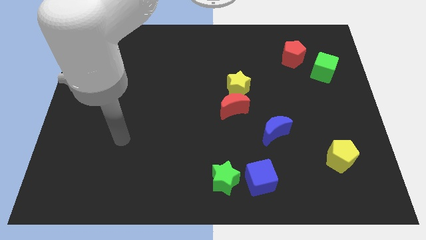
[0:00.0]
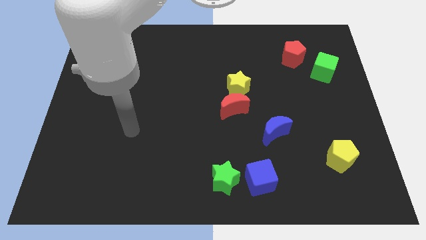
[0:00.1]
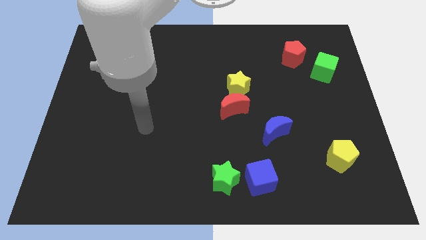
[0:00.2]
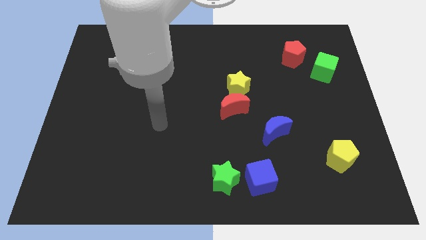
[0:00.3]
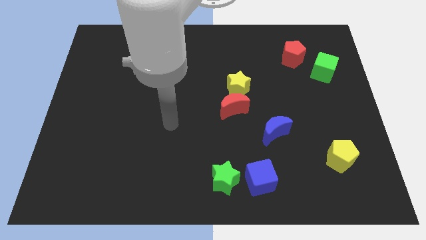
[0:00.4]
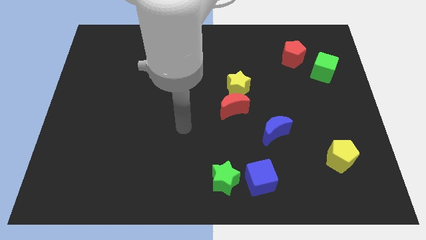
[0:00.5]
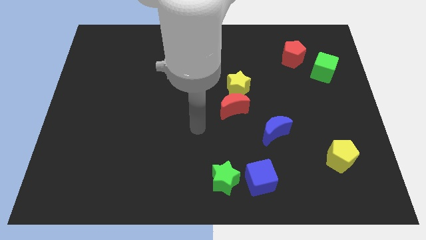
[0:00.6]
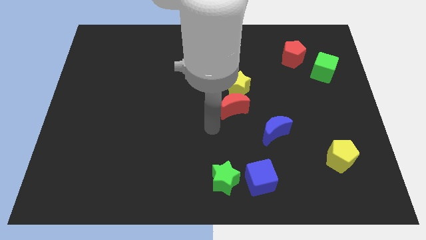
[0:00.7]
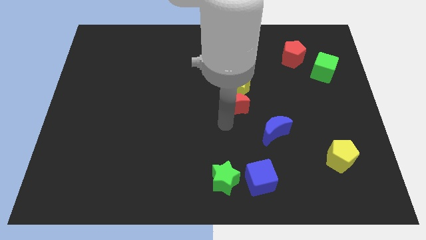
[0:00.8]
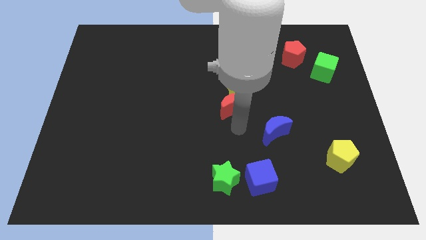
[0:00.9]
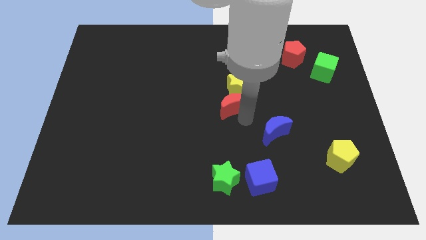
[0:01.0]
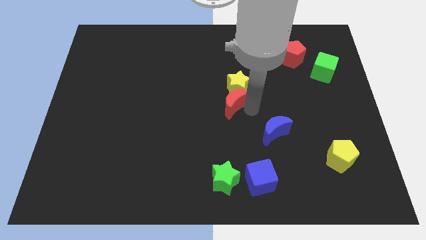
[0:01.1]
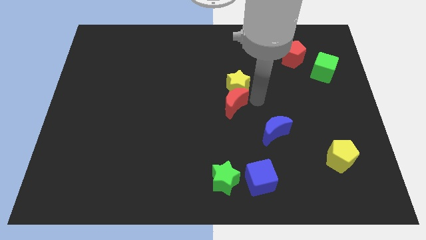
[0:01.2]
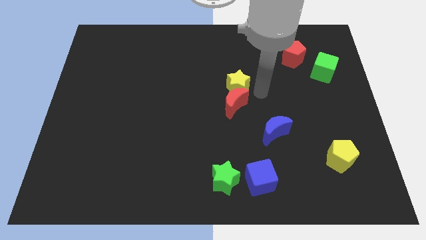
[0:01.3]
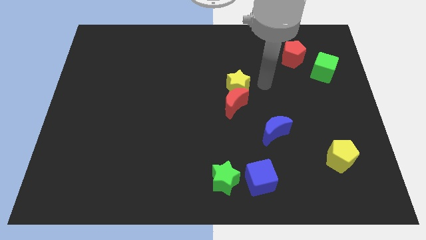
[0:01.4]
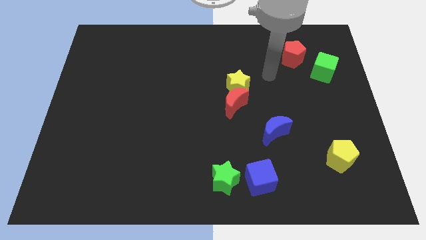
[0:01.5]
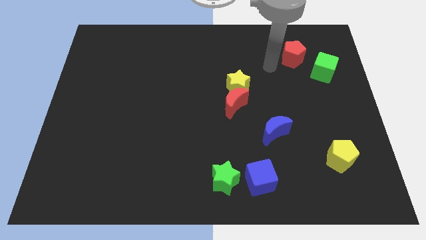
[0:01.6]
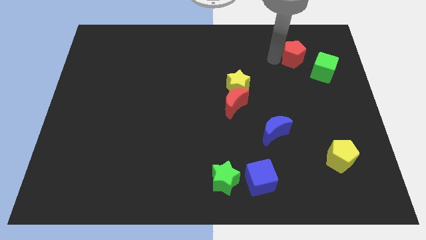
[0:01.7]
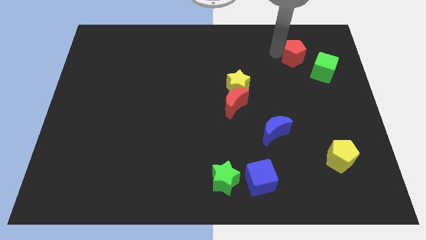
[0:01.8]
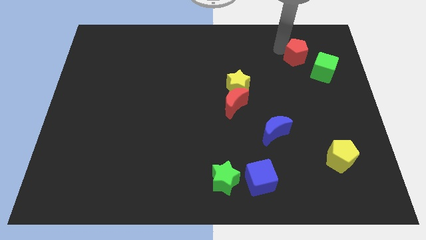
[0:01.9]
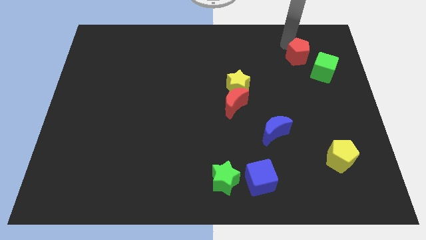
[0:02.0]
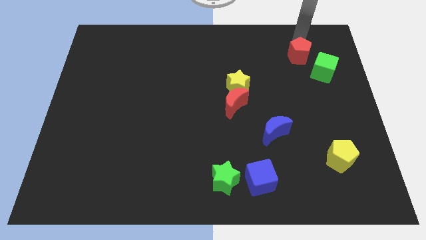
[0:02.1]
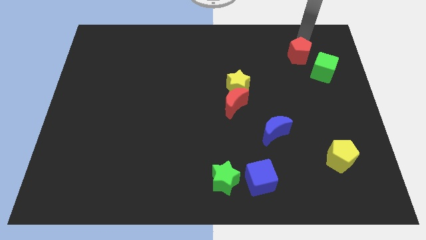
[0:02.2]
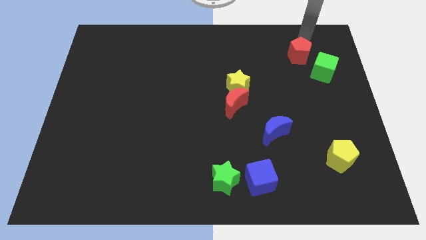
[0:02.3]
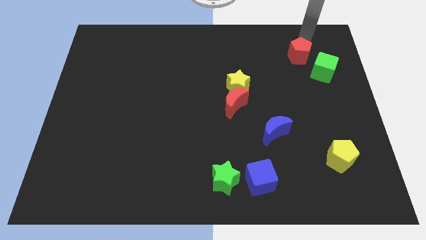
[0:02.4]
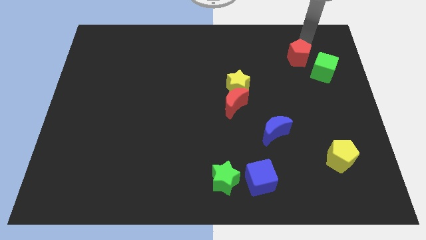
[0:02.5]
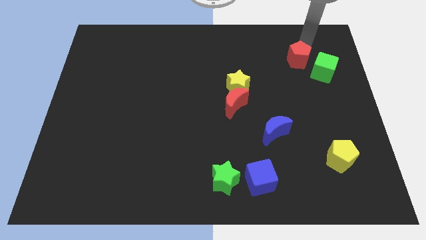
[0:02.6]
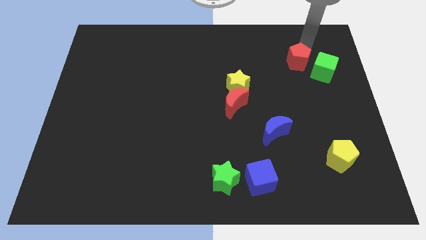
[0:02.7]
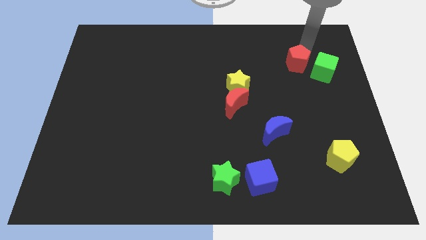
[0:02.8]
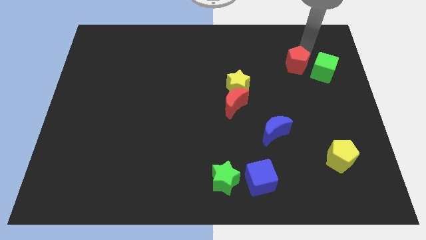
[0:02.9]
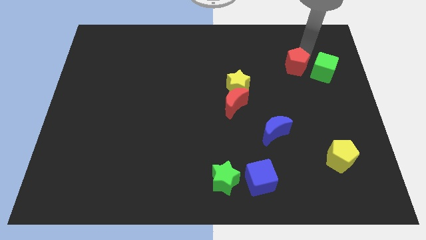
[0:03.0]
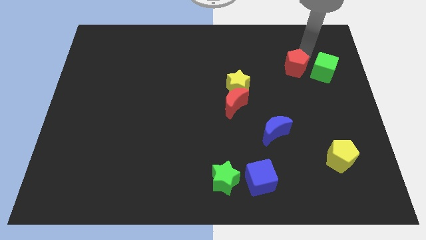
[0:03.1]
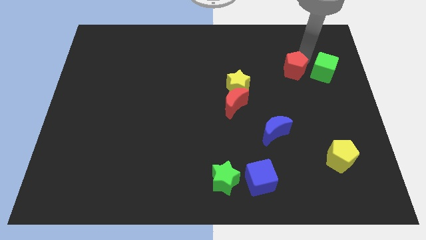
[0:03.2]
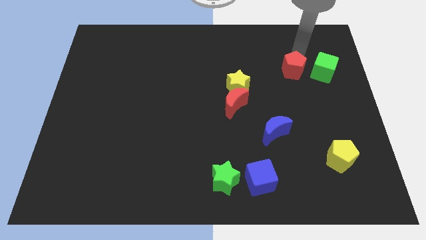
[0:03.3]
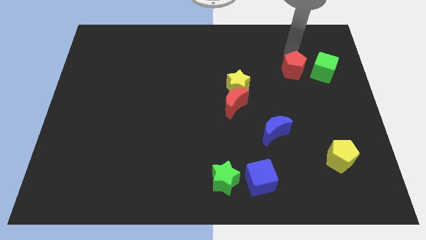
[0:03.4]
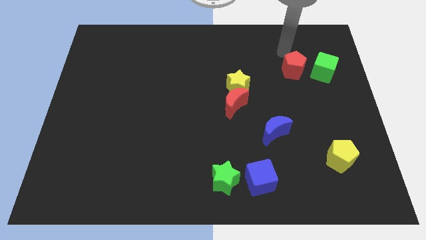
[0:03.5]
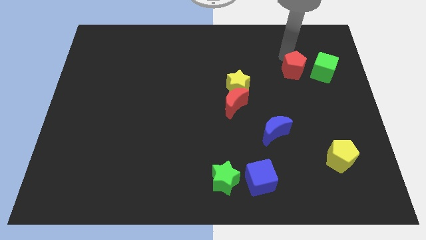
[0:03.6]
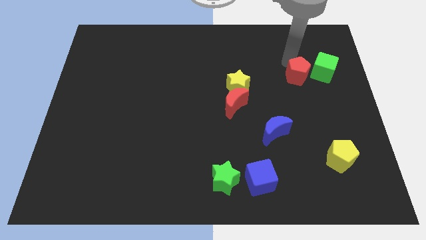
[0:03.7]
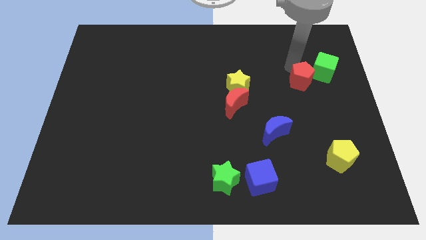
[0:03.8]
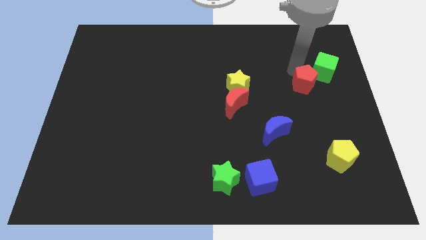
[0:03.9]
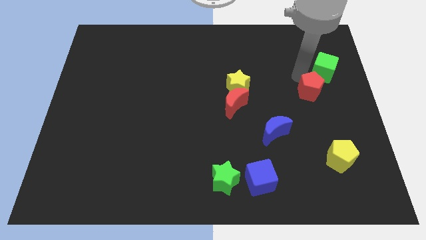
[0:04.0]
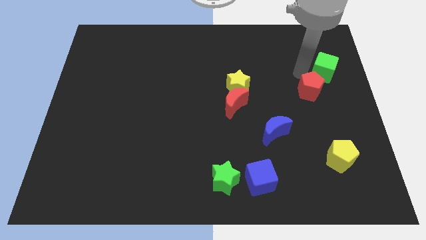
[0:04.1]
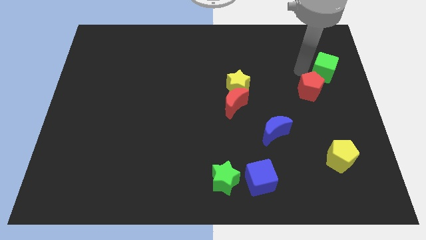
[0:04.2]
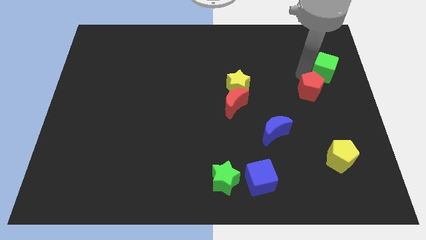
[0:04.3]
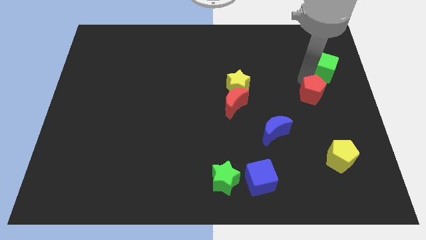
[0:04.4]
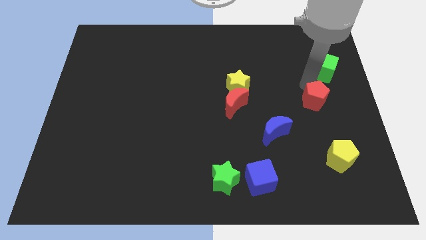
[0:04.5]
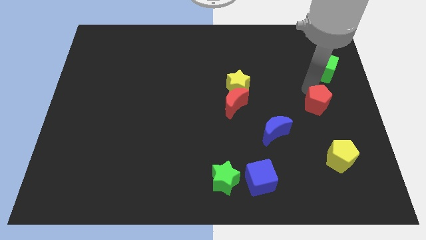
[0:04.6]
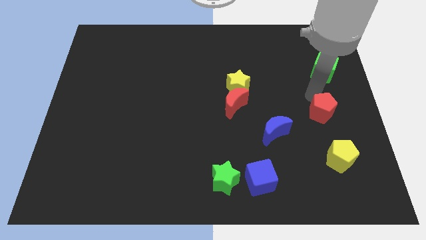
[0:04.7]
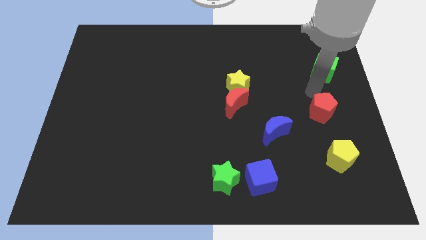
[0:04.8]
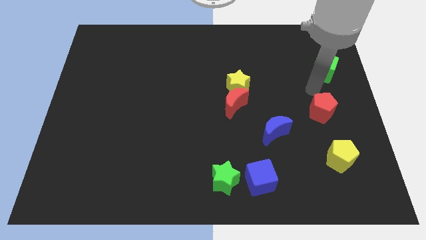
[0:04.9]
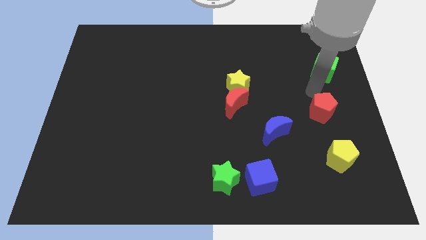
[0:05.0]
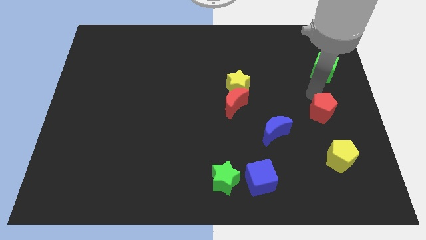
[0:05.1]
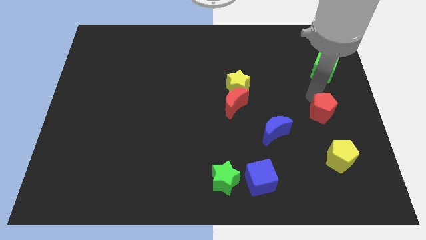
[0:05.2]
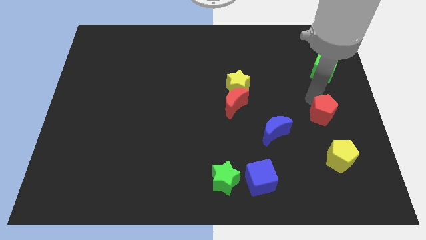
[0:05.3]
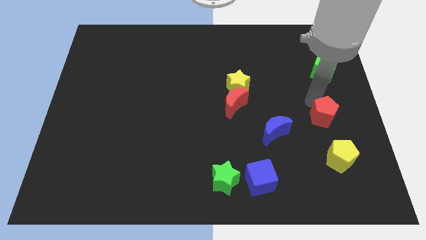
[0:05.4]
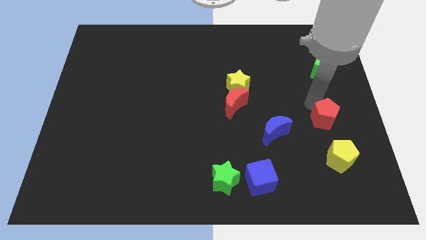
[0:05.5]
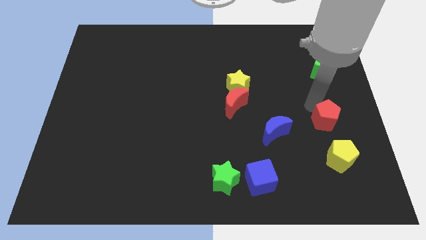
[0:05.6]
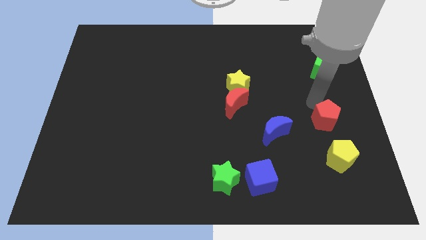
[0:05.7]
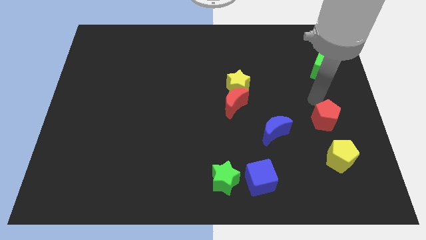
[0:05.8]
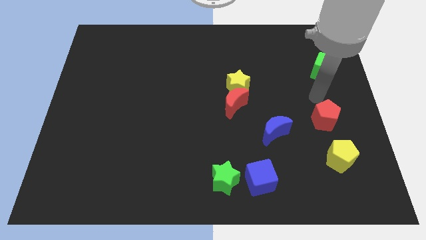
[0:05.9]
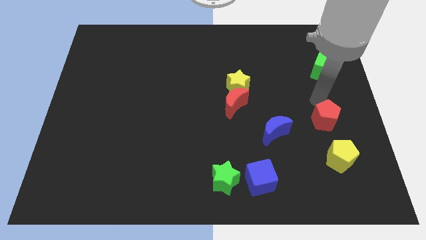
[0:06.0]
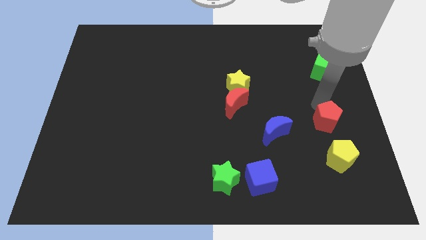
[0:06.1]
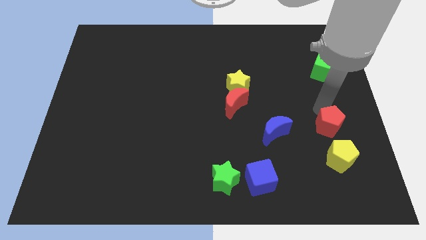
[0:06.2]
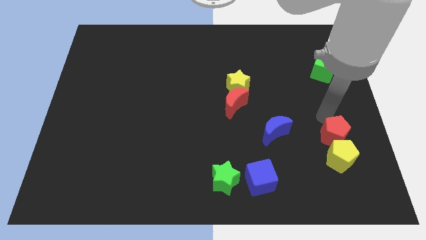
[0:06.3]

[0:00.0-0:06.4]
push the red pentagon towards the yellow pentagon
